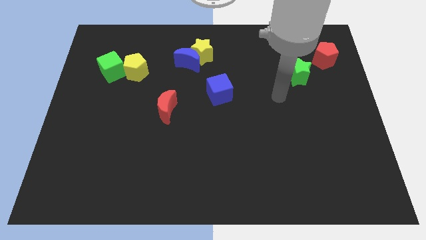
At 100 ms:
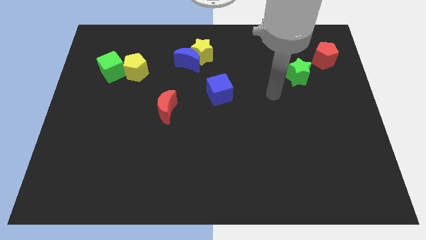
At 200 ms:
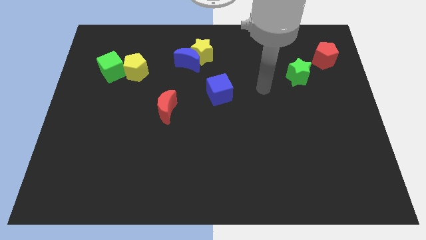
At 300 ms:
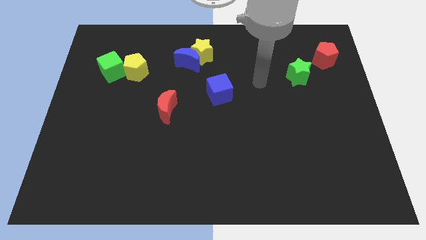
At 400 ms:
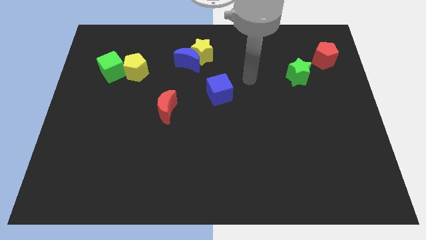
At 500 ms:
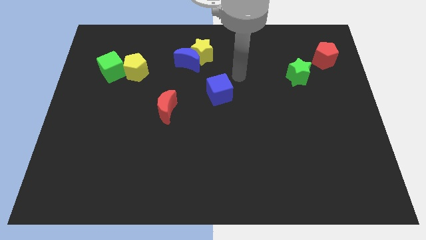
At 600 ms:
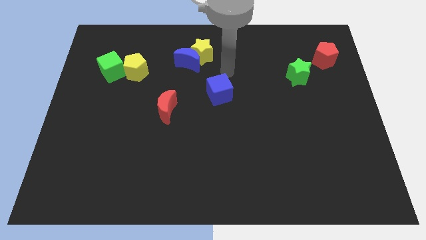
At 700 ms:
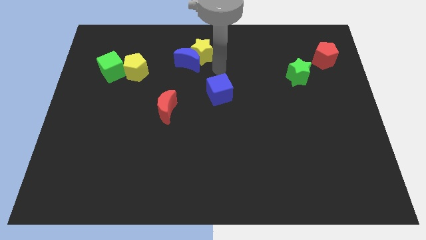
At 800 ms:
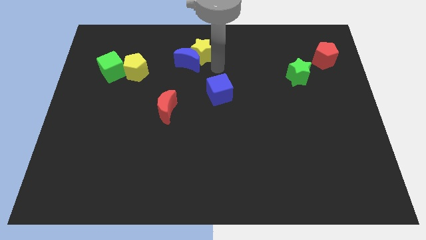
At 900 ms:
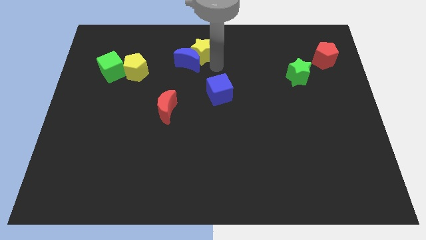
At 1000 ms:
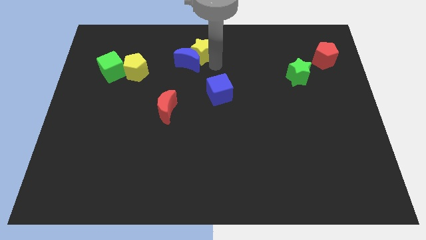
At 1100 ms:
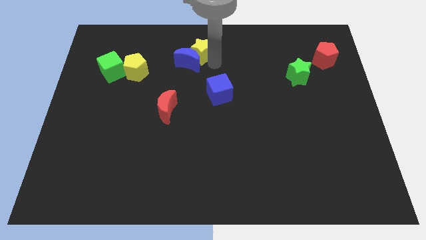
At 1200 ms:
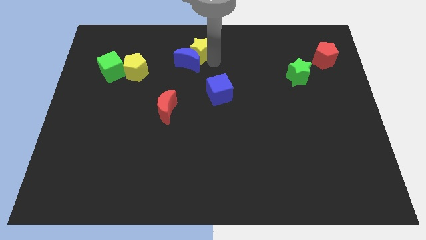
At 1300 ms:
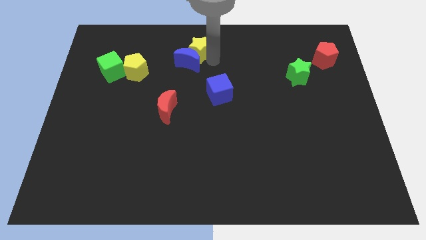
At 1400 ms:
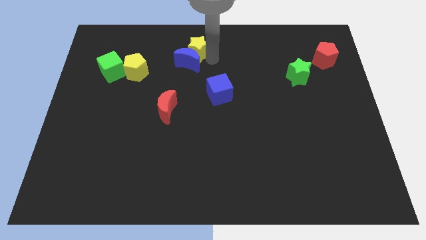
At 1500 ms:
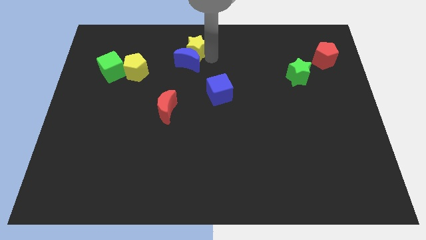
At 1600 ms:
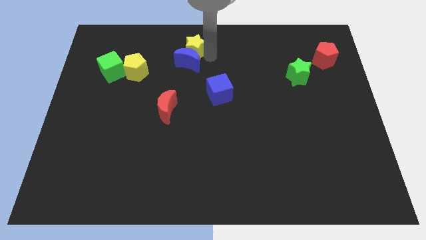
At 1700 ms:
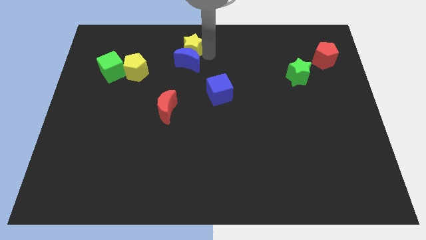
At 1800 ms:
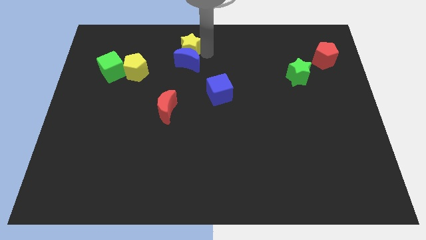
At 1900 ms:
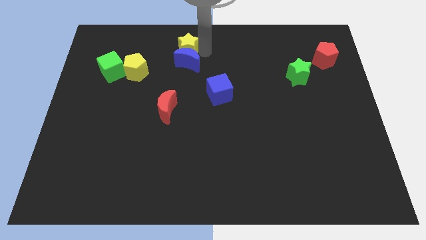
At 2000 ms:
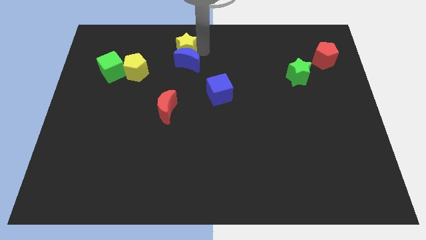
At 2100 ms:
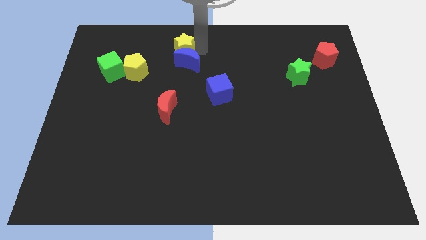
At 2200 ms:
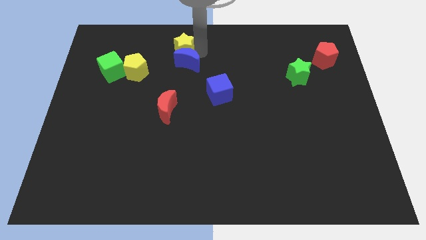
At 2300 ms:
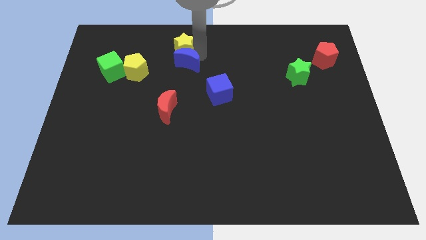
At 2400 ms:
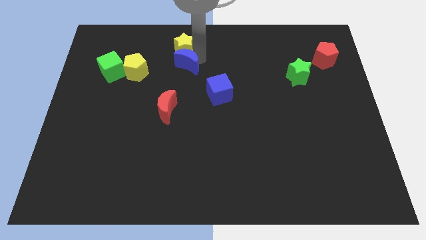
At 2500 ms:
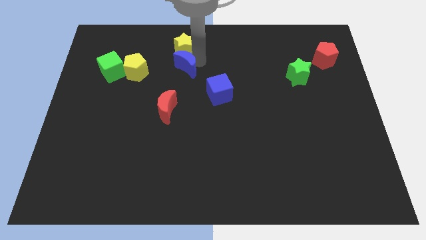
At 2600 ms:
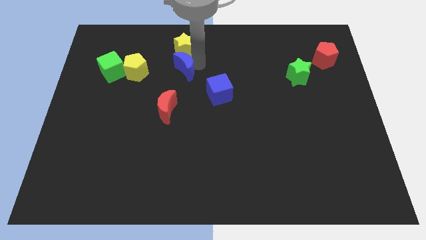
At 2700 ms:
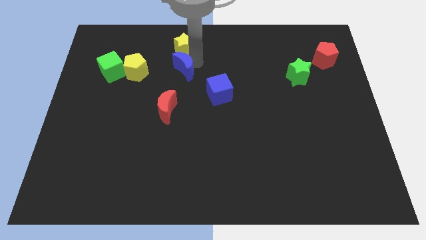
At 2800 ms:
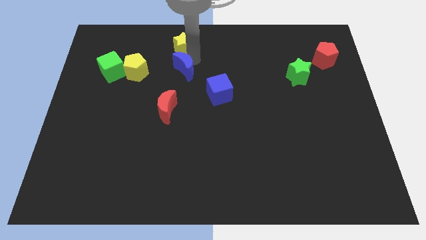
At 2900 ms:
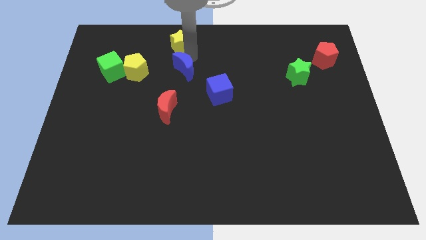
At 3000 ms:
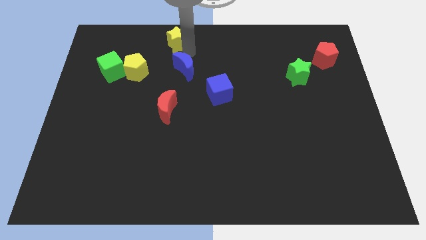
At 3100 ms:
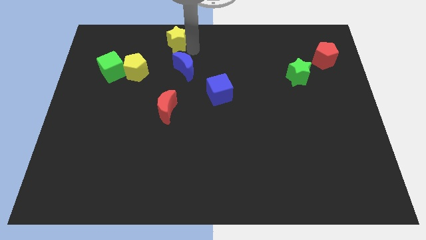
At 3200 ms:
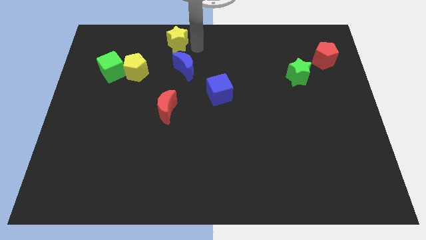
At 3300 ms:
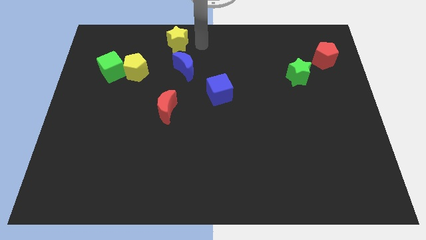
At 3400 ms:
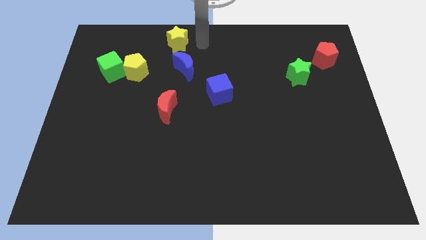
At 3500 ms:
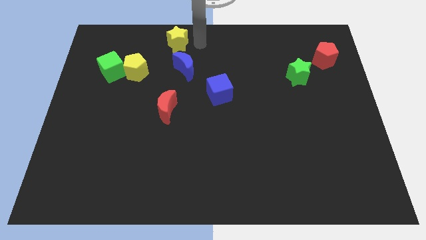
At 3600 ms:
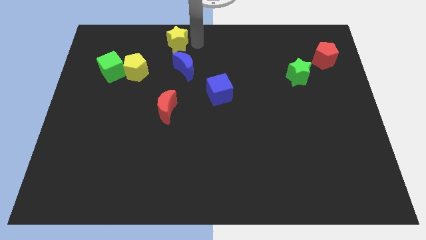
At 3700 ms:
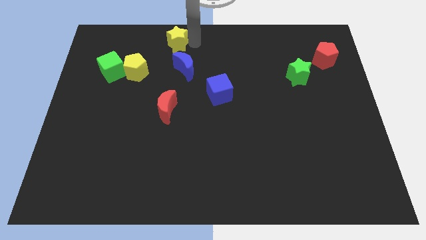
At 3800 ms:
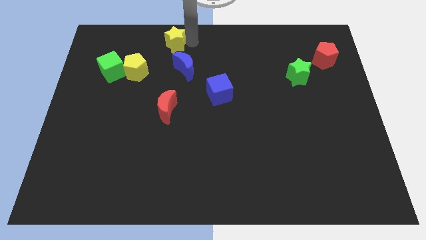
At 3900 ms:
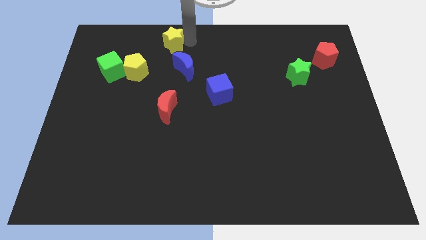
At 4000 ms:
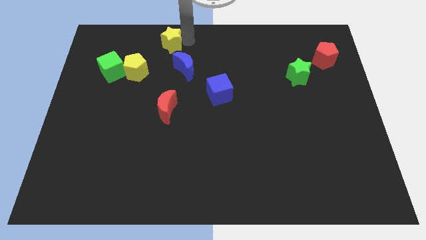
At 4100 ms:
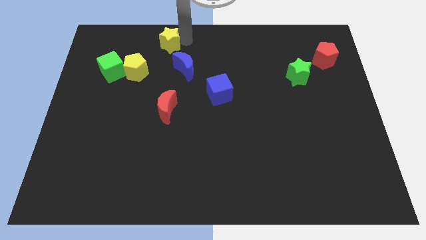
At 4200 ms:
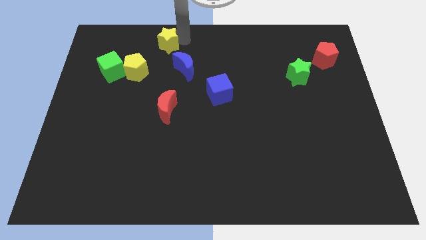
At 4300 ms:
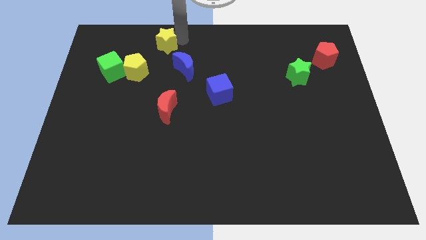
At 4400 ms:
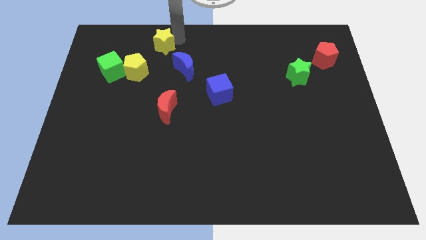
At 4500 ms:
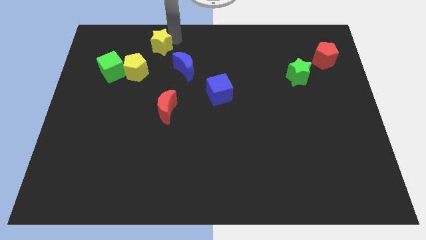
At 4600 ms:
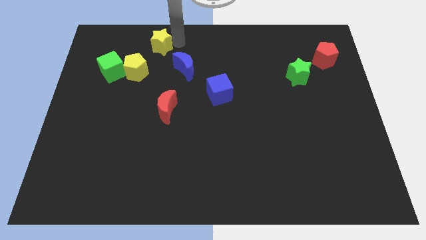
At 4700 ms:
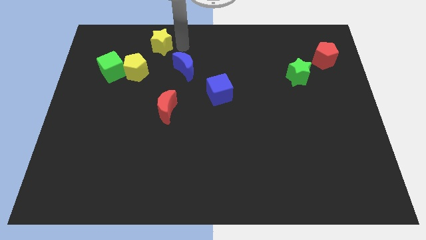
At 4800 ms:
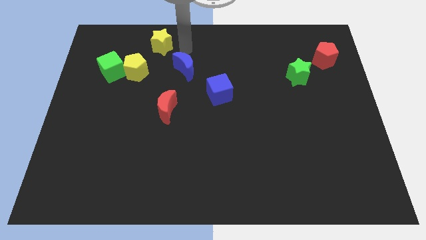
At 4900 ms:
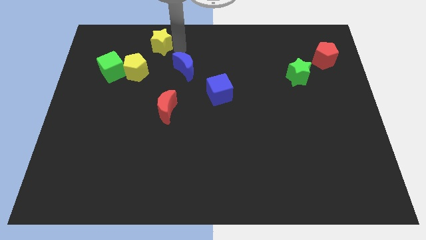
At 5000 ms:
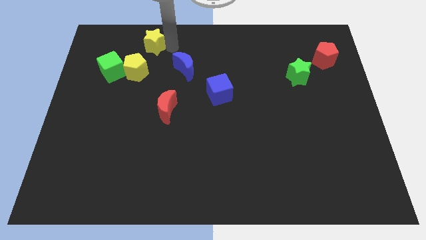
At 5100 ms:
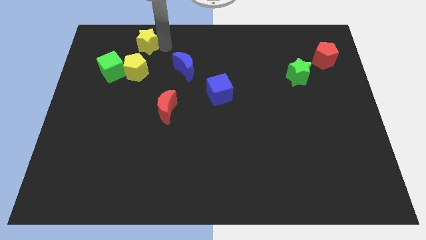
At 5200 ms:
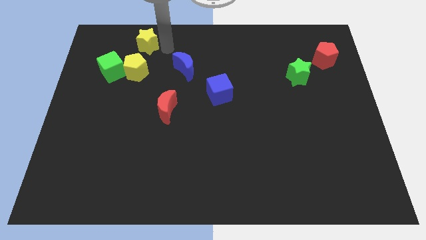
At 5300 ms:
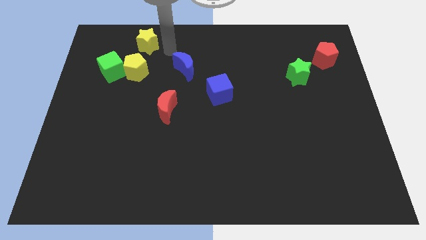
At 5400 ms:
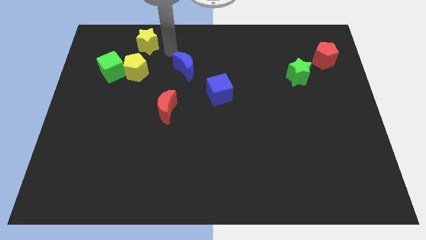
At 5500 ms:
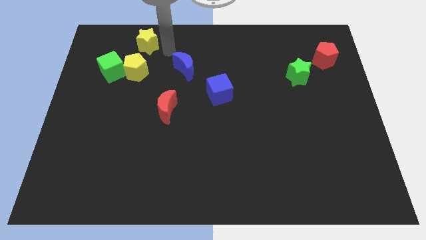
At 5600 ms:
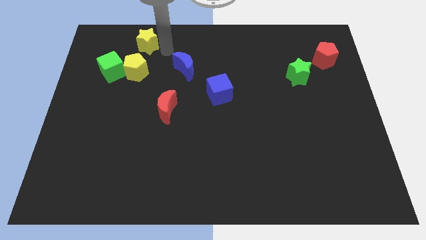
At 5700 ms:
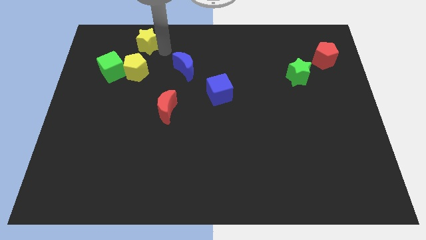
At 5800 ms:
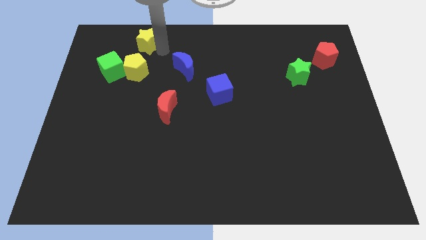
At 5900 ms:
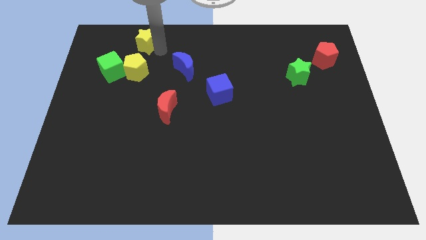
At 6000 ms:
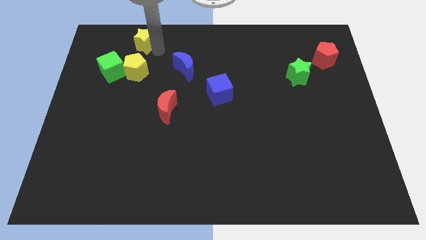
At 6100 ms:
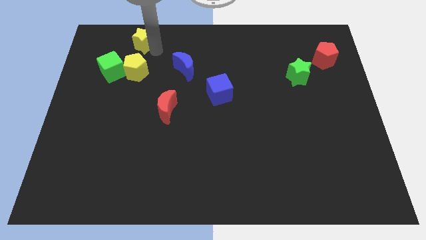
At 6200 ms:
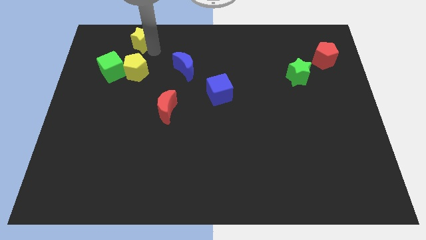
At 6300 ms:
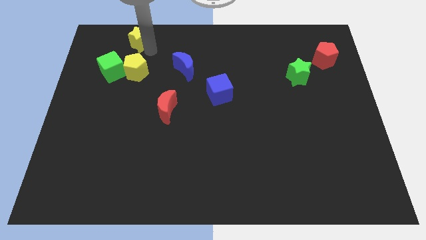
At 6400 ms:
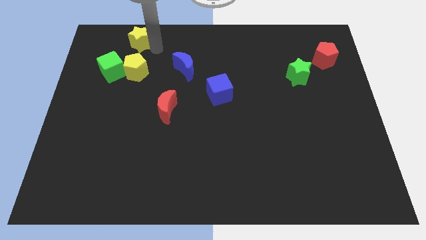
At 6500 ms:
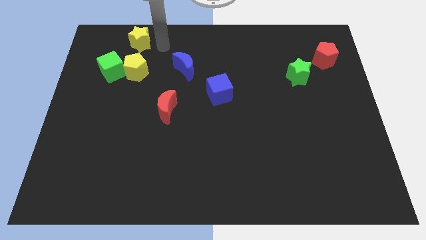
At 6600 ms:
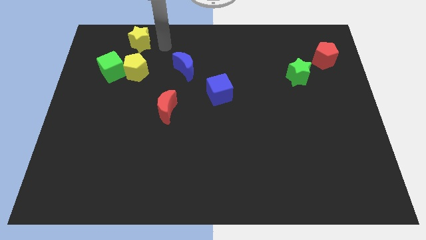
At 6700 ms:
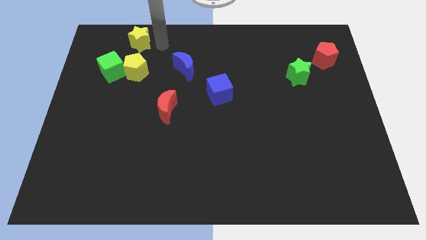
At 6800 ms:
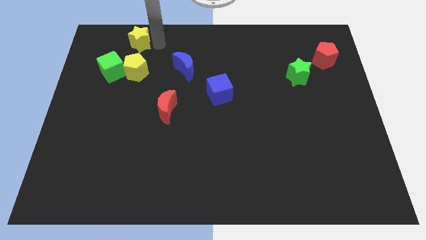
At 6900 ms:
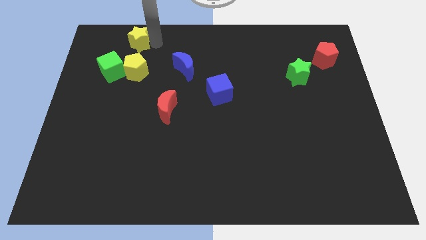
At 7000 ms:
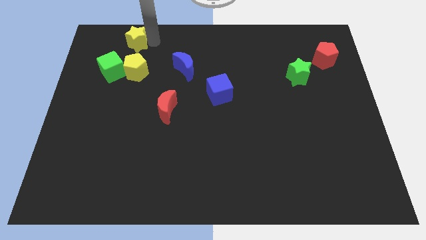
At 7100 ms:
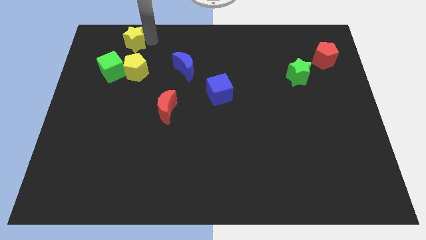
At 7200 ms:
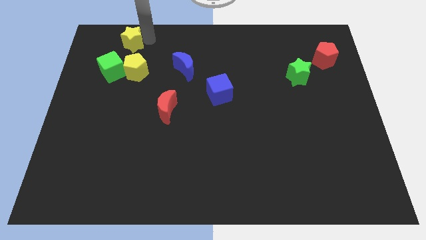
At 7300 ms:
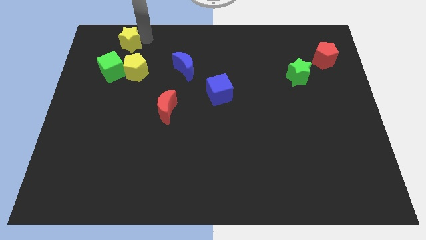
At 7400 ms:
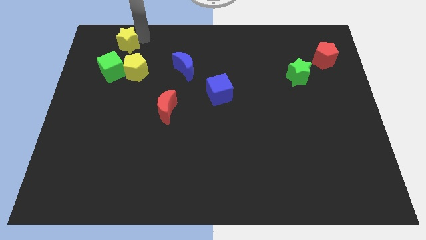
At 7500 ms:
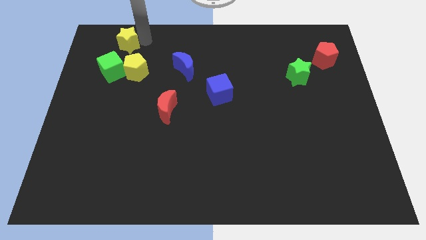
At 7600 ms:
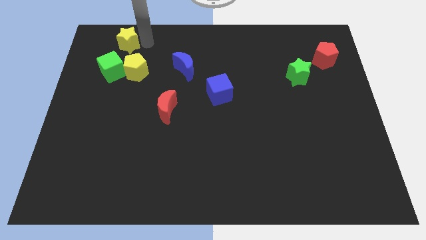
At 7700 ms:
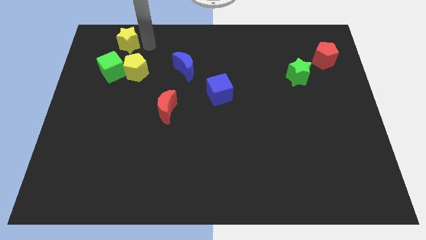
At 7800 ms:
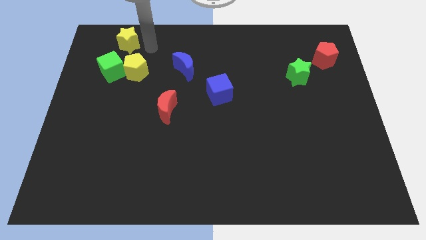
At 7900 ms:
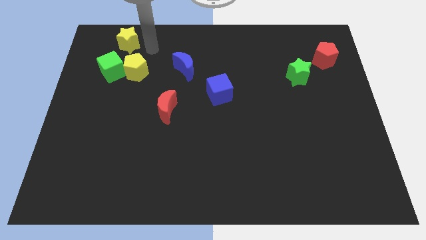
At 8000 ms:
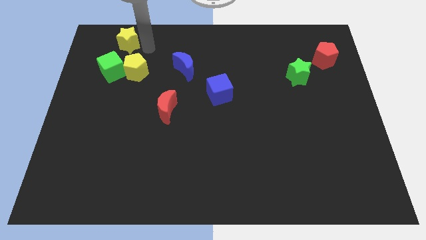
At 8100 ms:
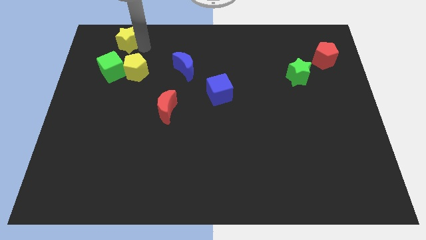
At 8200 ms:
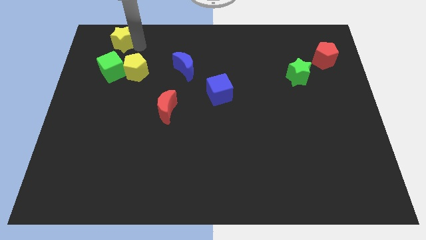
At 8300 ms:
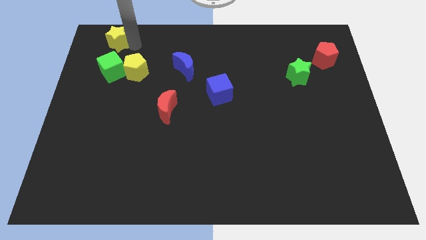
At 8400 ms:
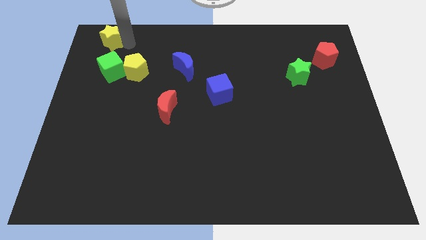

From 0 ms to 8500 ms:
push the yellow star to the top left
